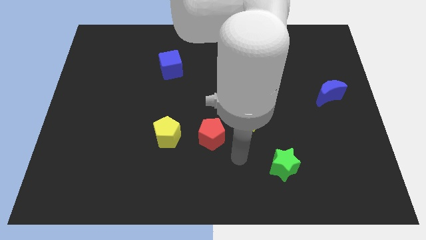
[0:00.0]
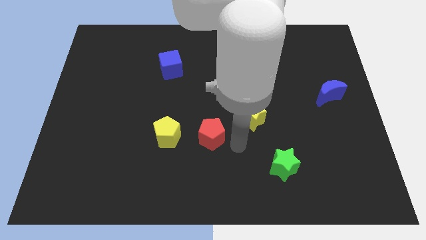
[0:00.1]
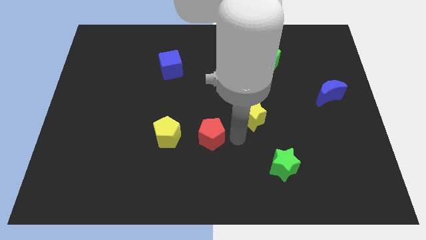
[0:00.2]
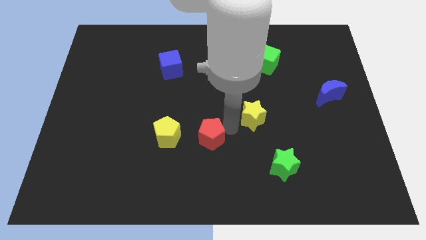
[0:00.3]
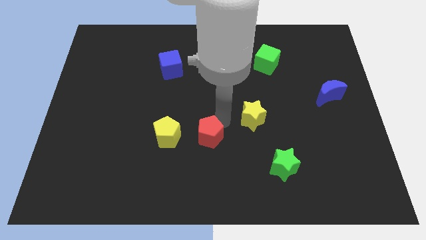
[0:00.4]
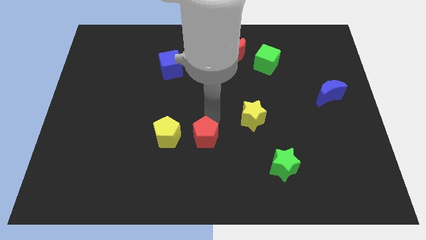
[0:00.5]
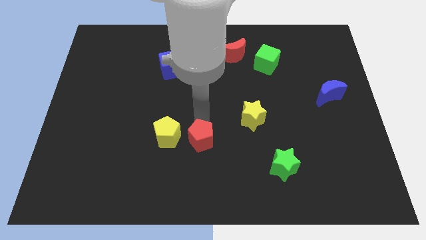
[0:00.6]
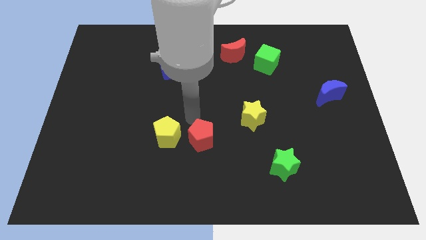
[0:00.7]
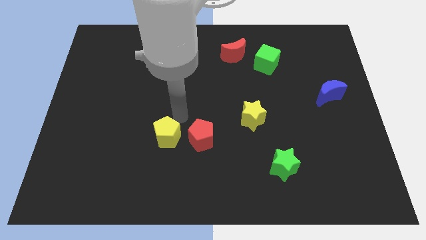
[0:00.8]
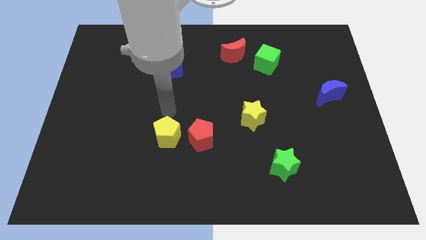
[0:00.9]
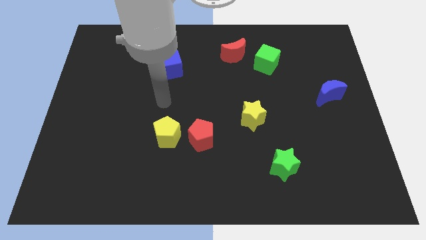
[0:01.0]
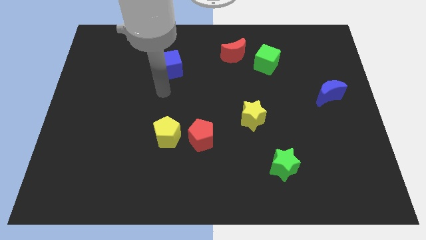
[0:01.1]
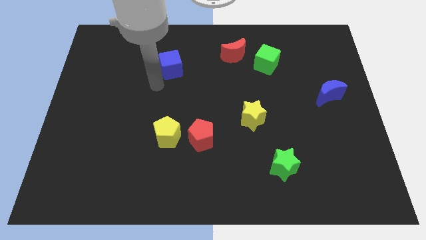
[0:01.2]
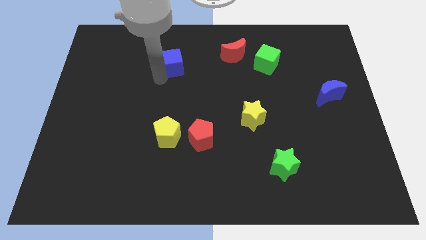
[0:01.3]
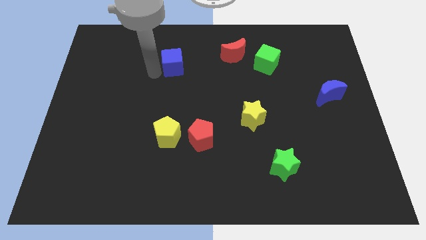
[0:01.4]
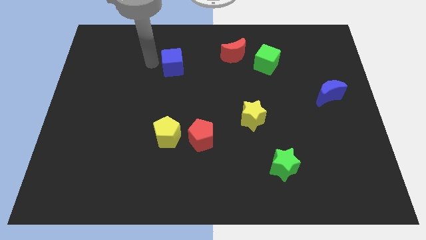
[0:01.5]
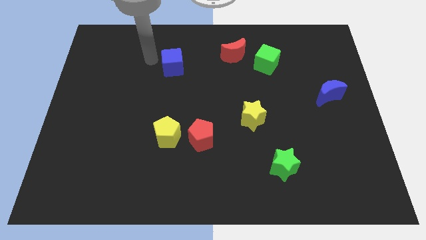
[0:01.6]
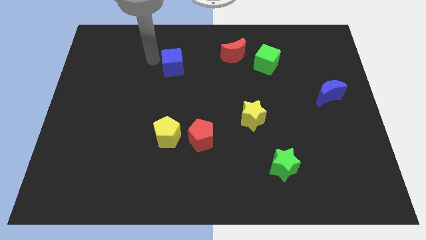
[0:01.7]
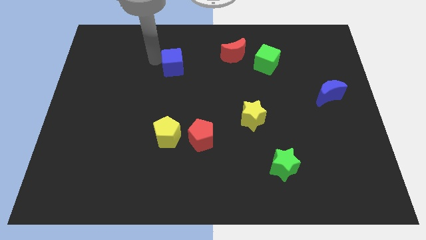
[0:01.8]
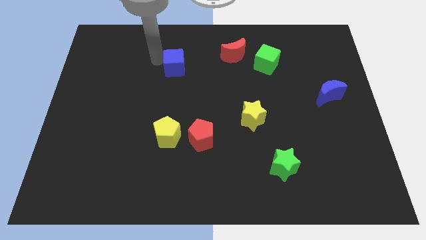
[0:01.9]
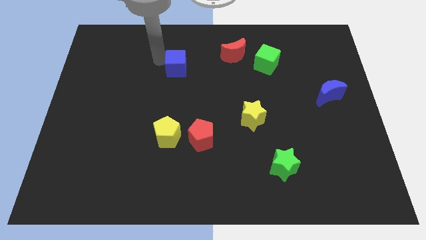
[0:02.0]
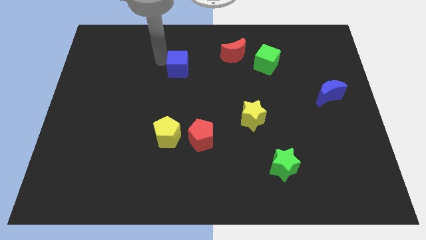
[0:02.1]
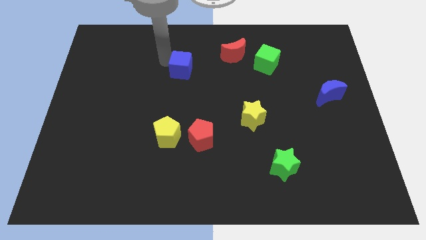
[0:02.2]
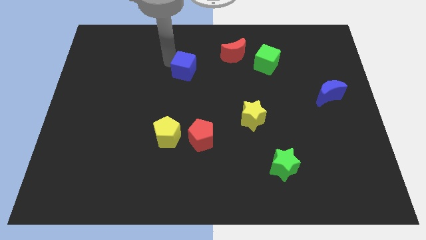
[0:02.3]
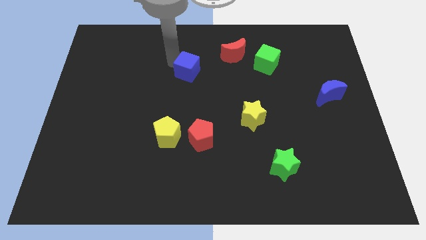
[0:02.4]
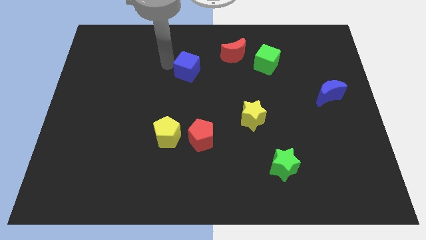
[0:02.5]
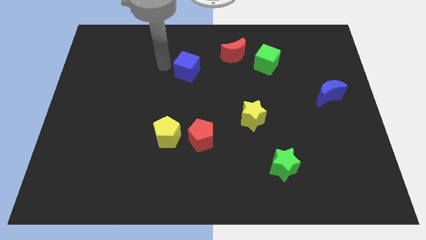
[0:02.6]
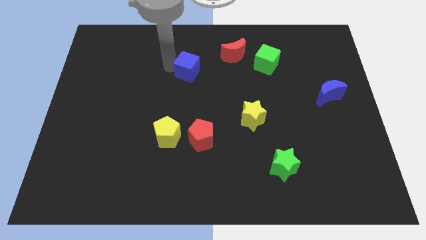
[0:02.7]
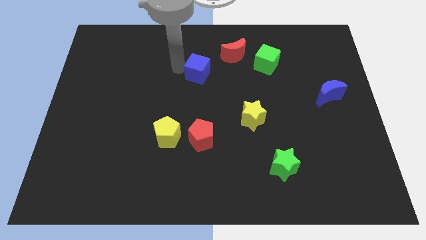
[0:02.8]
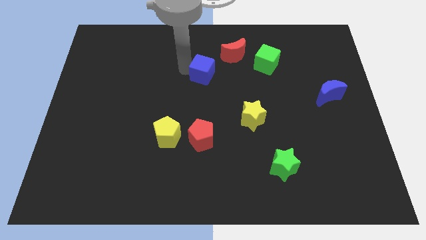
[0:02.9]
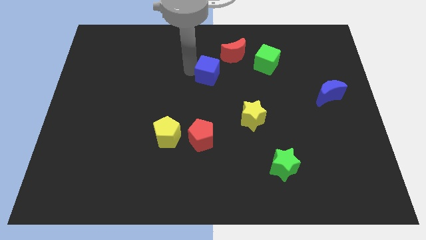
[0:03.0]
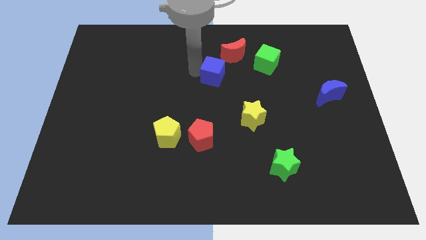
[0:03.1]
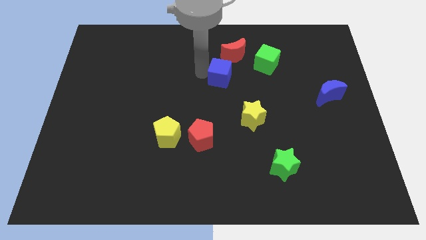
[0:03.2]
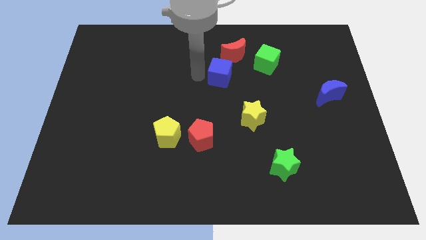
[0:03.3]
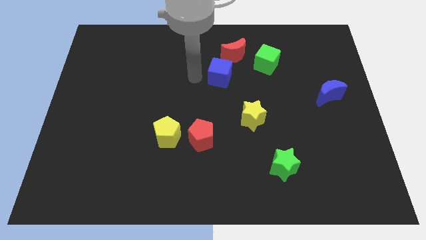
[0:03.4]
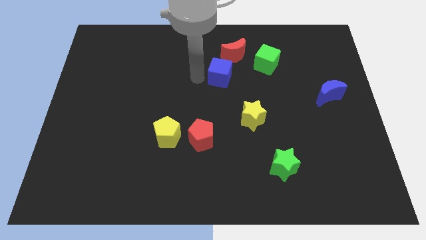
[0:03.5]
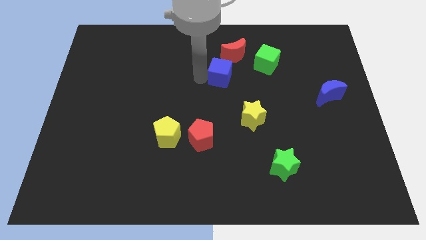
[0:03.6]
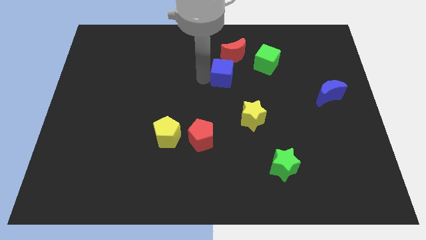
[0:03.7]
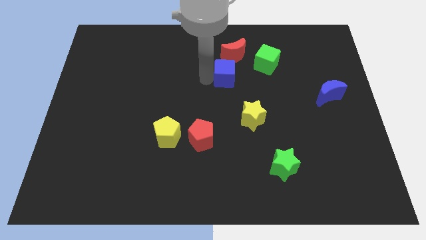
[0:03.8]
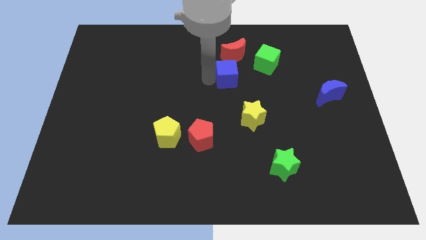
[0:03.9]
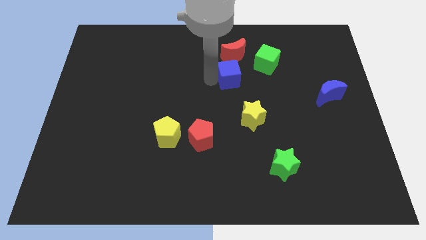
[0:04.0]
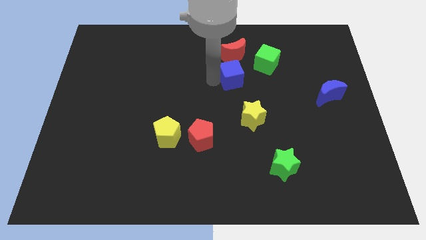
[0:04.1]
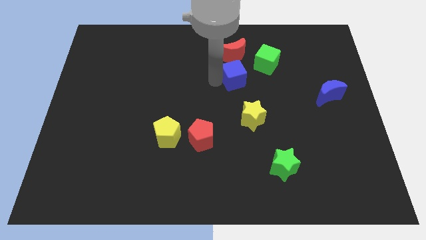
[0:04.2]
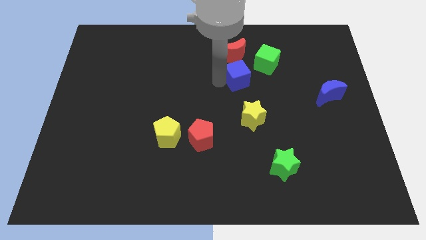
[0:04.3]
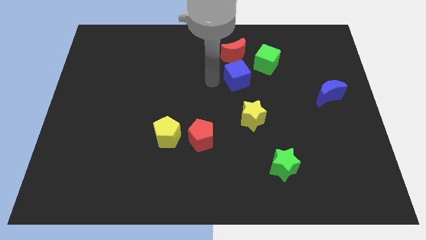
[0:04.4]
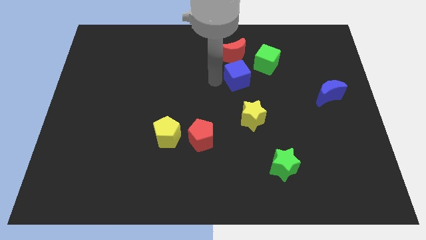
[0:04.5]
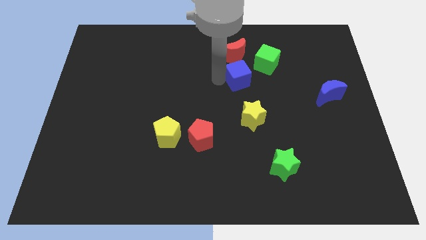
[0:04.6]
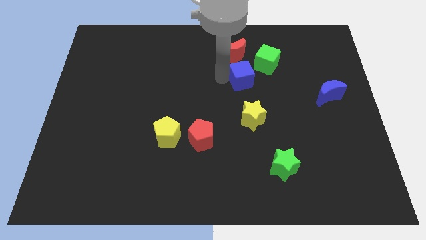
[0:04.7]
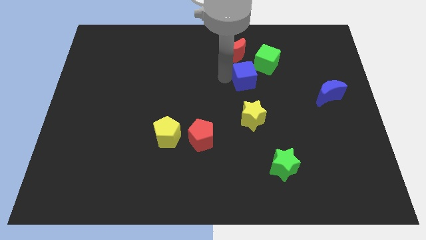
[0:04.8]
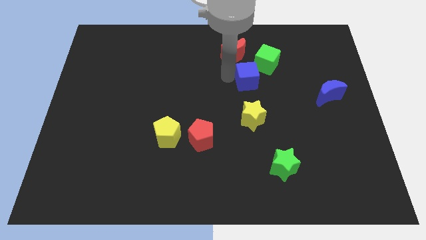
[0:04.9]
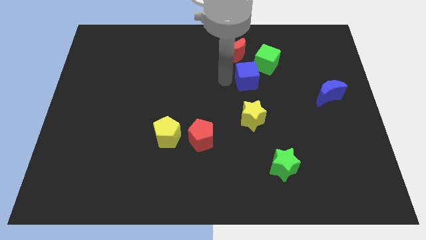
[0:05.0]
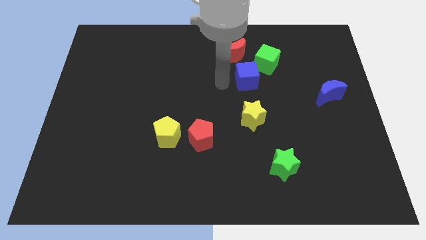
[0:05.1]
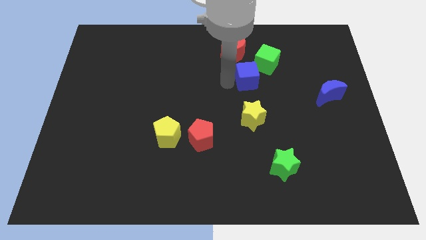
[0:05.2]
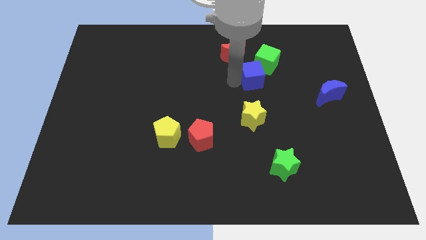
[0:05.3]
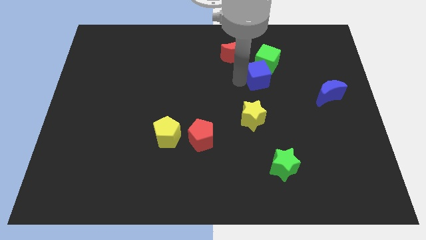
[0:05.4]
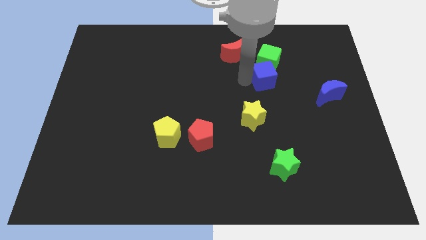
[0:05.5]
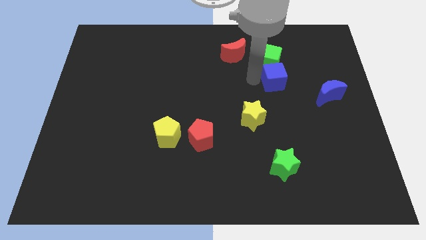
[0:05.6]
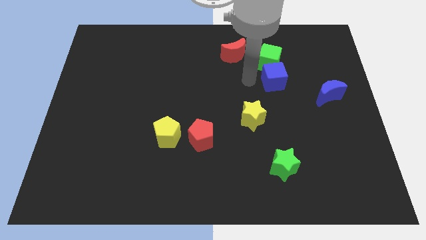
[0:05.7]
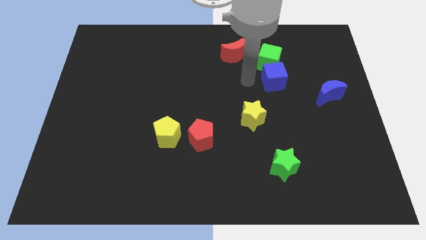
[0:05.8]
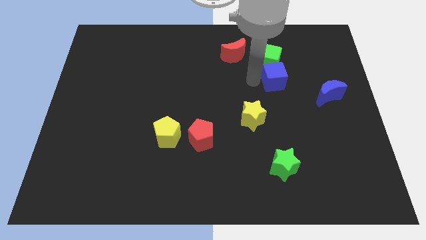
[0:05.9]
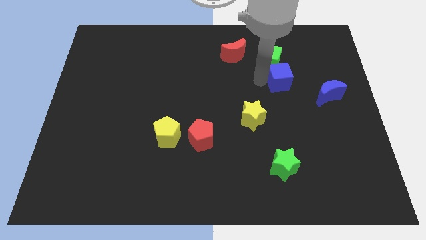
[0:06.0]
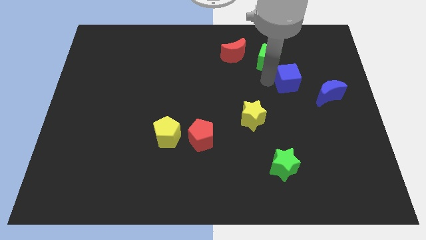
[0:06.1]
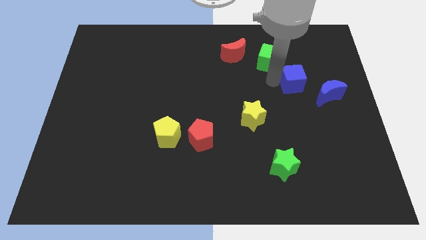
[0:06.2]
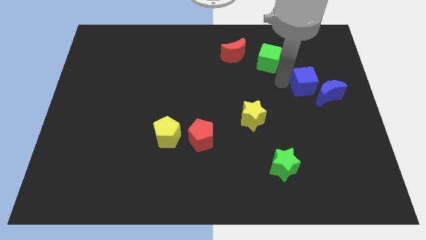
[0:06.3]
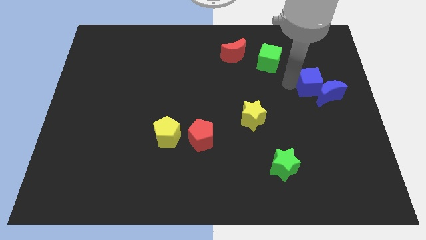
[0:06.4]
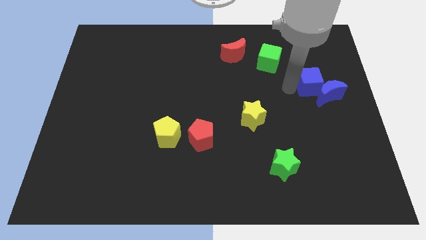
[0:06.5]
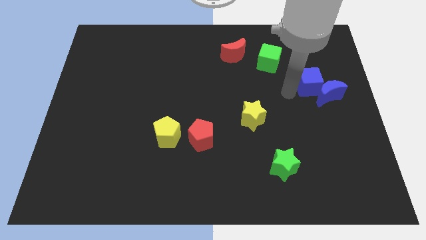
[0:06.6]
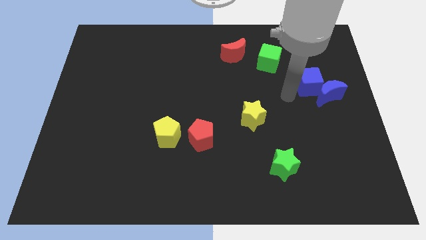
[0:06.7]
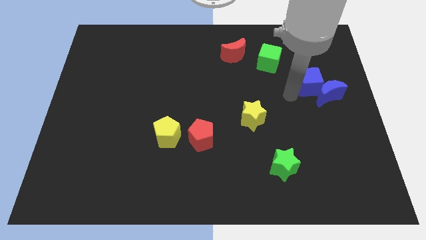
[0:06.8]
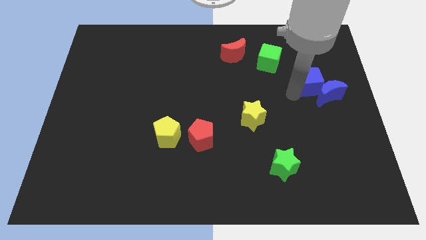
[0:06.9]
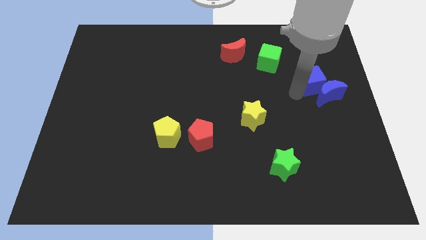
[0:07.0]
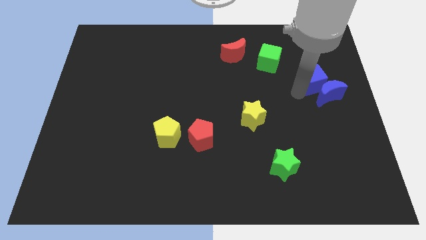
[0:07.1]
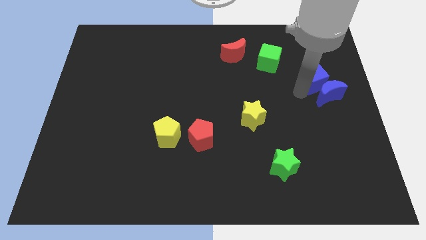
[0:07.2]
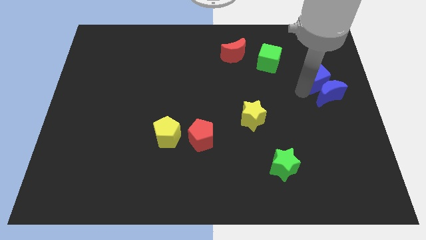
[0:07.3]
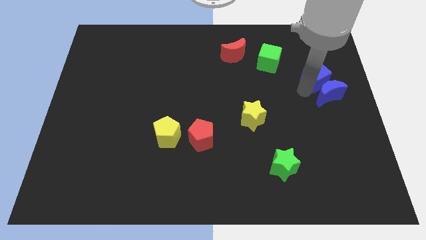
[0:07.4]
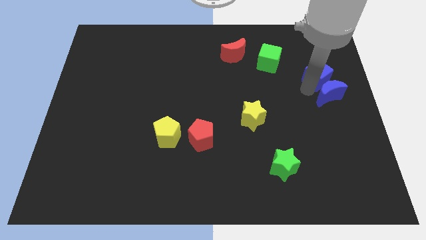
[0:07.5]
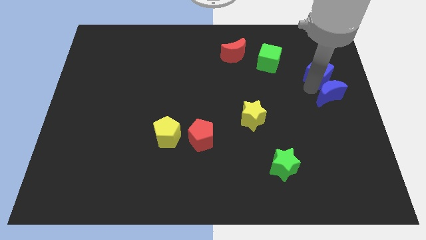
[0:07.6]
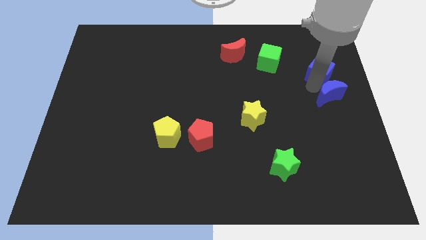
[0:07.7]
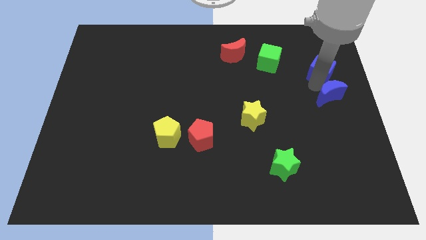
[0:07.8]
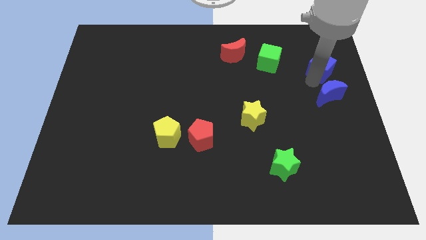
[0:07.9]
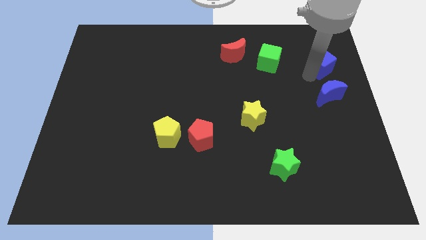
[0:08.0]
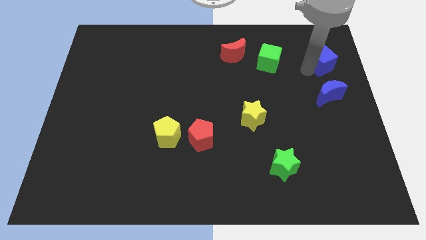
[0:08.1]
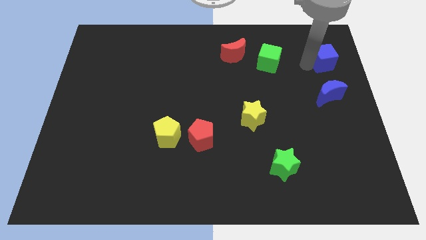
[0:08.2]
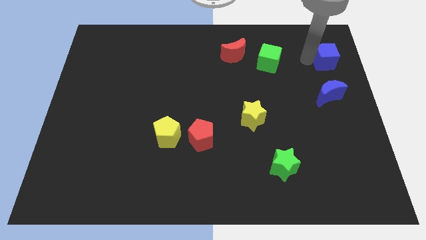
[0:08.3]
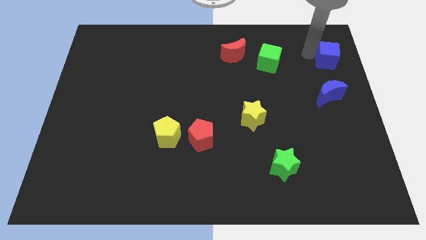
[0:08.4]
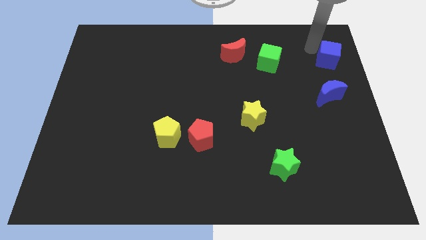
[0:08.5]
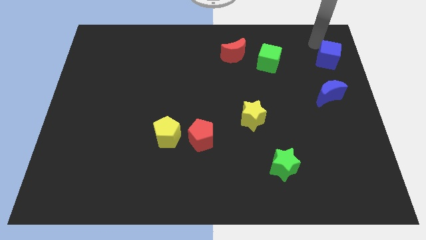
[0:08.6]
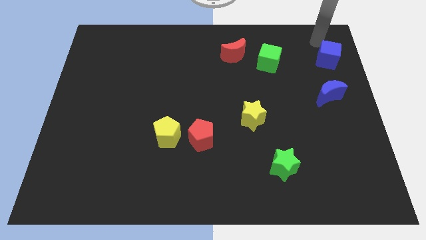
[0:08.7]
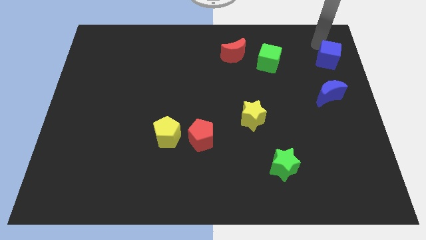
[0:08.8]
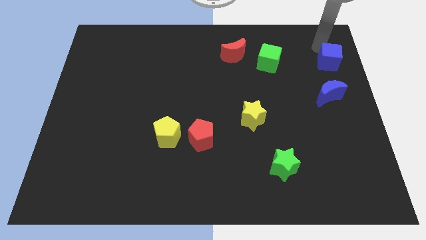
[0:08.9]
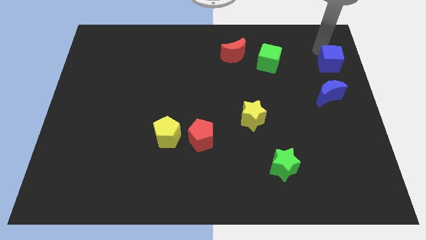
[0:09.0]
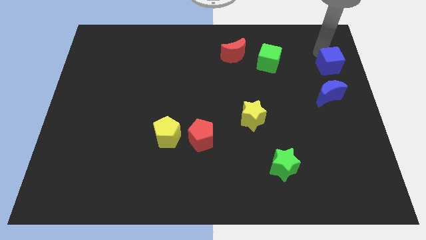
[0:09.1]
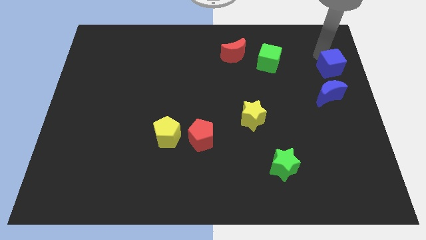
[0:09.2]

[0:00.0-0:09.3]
put the blue cube to the right side of the board
